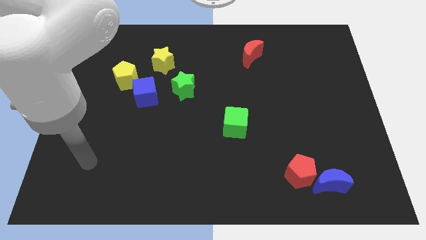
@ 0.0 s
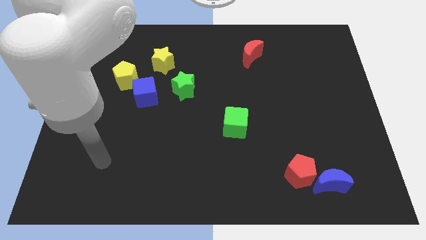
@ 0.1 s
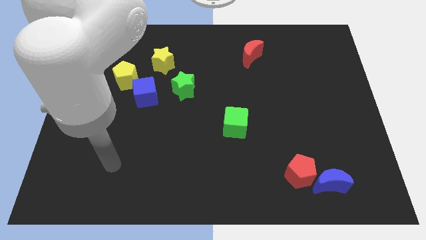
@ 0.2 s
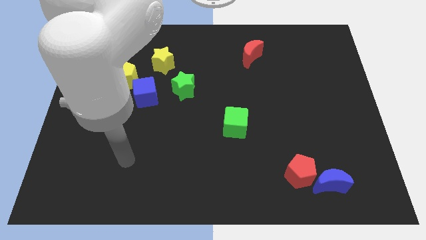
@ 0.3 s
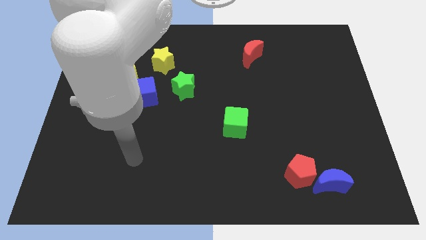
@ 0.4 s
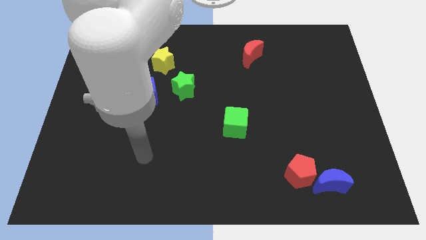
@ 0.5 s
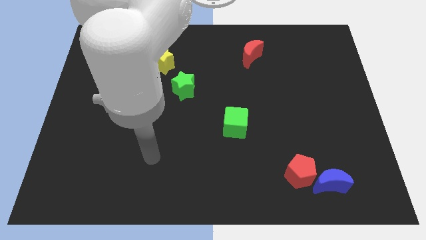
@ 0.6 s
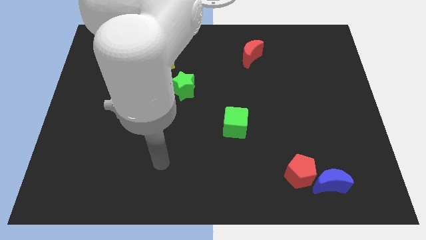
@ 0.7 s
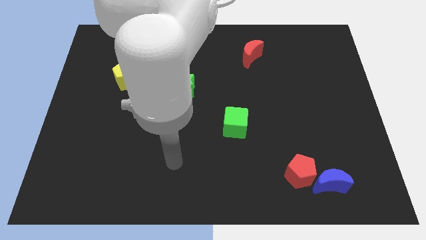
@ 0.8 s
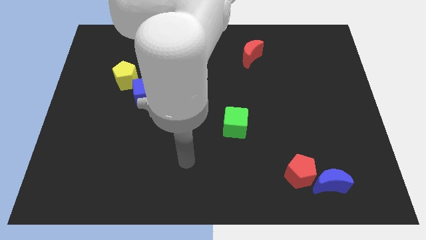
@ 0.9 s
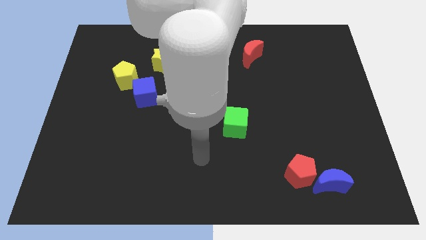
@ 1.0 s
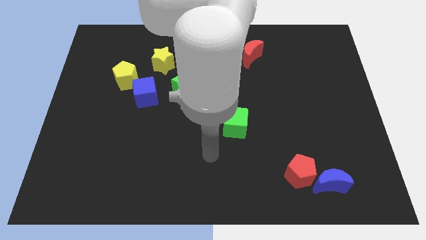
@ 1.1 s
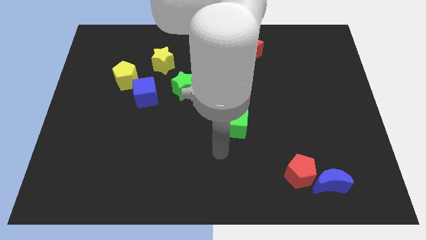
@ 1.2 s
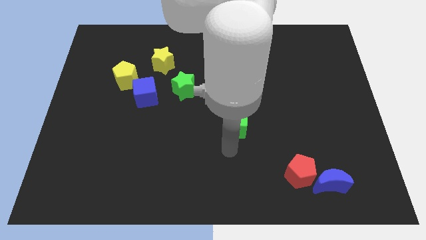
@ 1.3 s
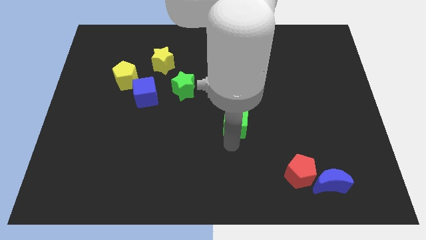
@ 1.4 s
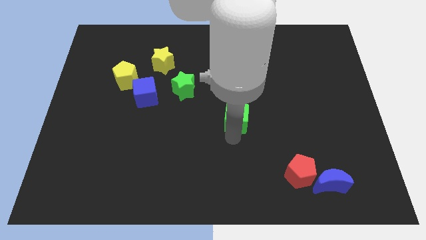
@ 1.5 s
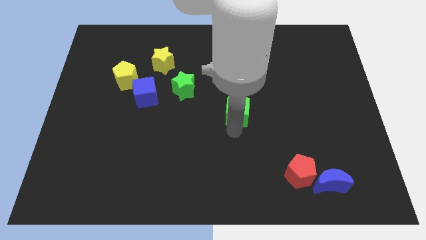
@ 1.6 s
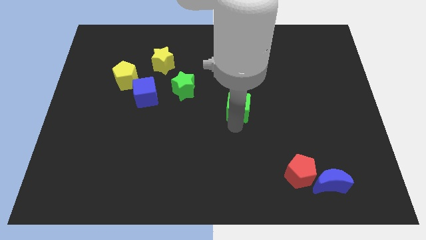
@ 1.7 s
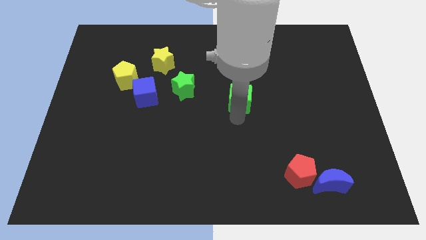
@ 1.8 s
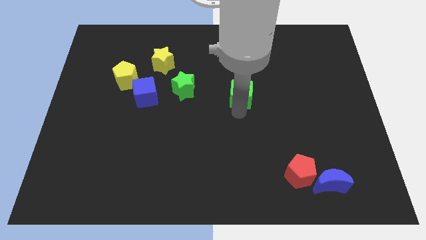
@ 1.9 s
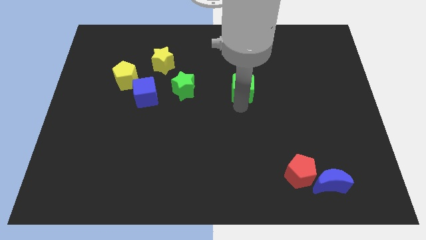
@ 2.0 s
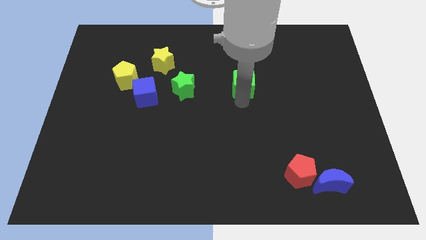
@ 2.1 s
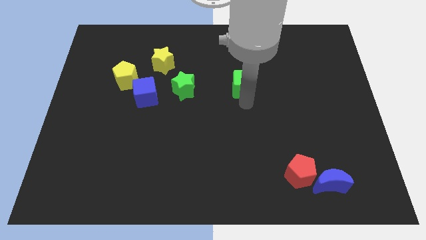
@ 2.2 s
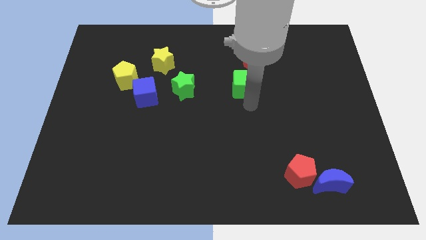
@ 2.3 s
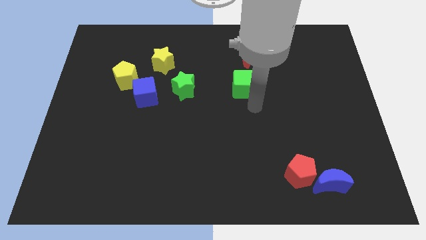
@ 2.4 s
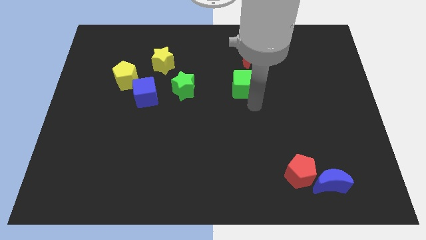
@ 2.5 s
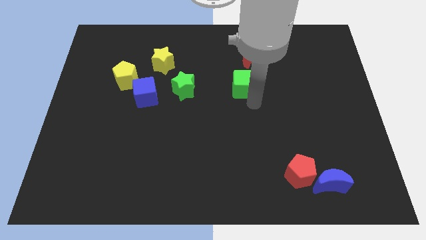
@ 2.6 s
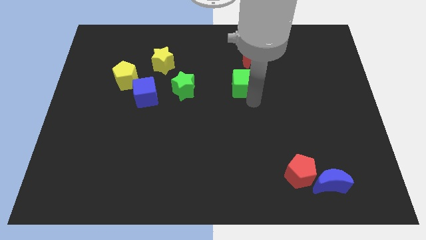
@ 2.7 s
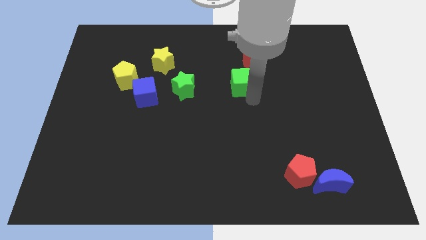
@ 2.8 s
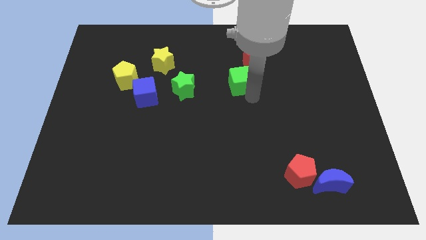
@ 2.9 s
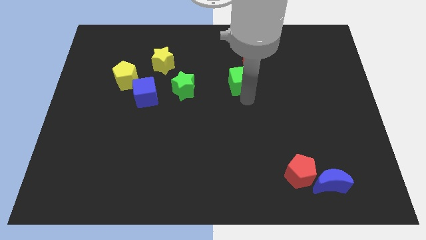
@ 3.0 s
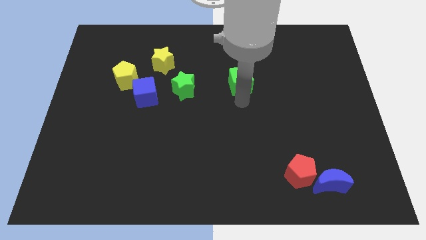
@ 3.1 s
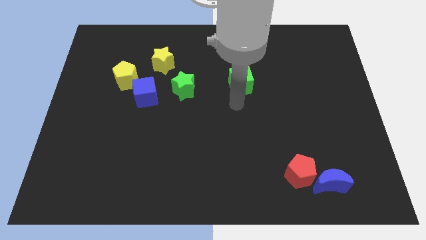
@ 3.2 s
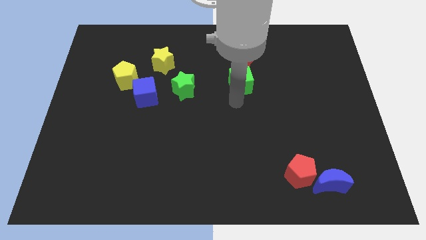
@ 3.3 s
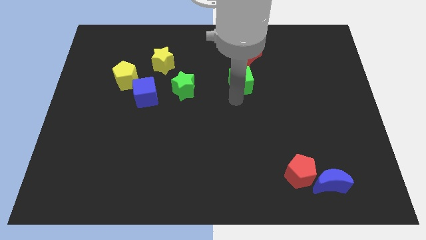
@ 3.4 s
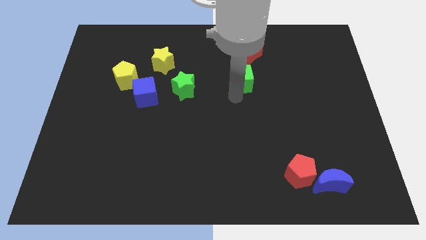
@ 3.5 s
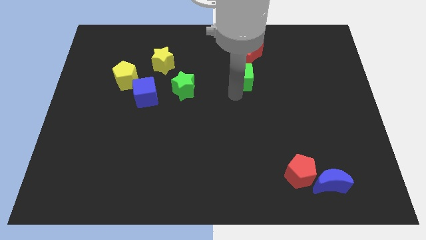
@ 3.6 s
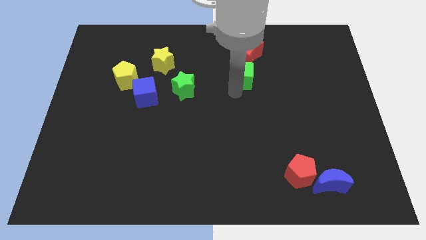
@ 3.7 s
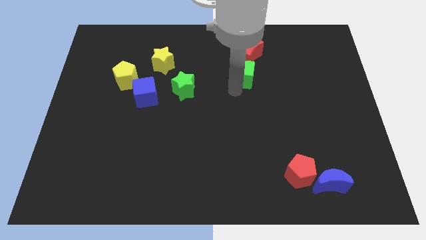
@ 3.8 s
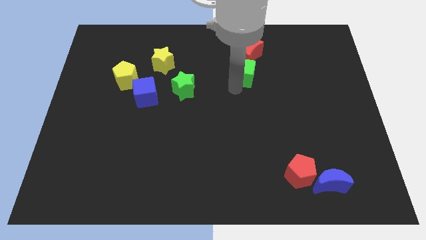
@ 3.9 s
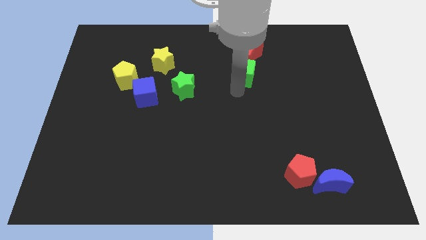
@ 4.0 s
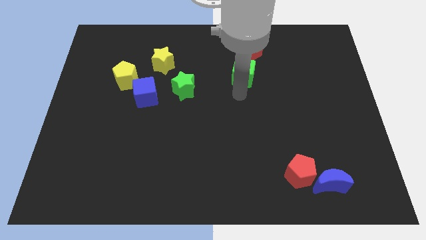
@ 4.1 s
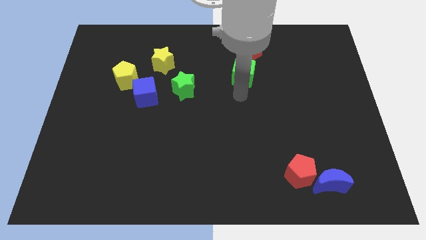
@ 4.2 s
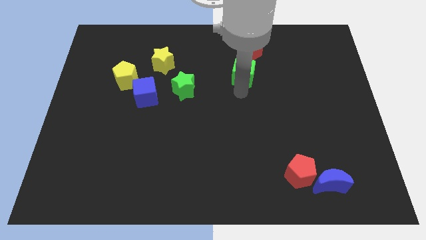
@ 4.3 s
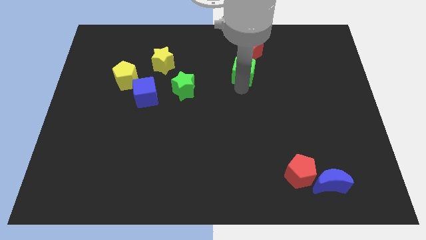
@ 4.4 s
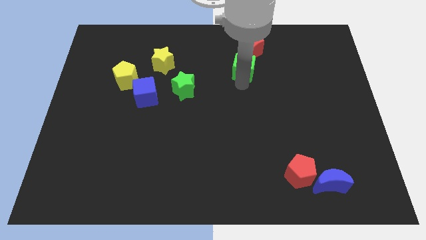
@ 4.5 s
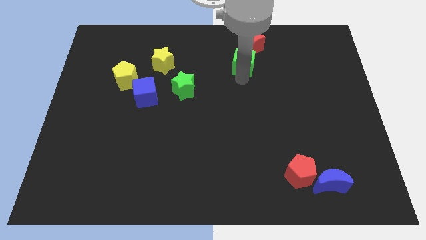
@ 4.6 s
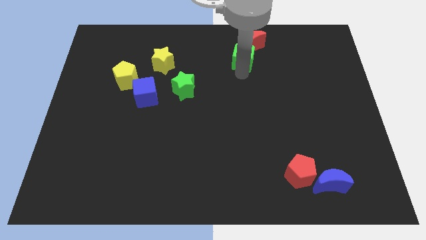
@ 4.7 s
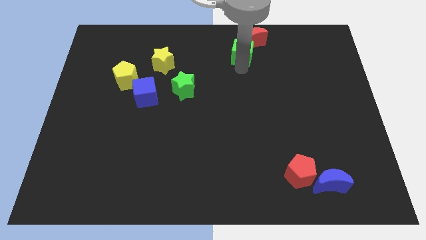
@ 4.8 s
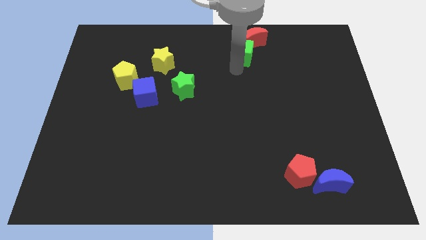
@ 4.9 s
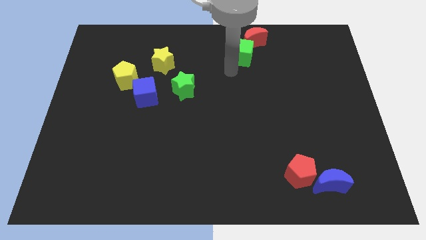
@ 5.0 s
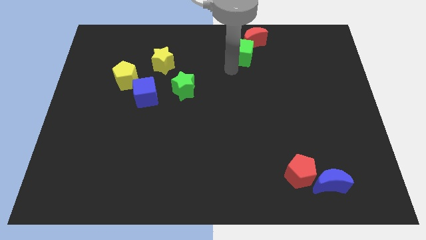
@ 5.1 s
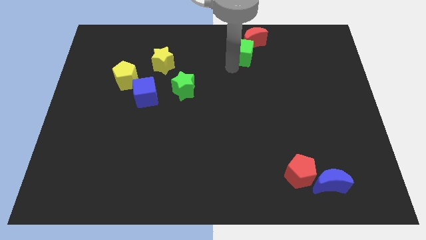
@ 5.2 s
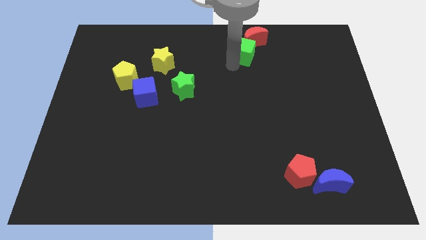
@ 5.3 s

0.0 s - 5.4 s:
move the green cube next to the red moon

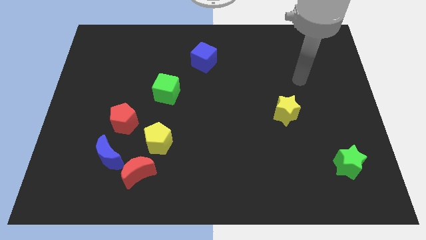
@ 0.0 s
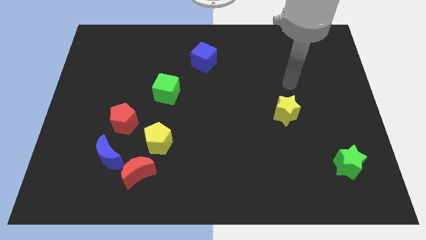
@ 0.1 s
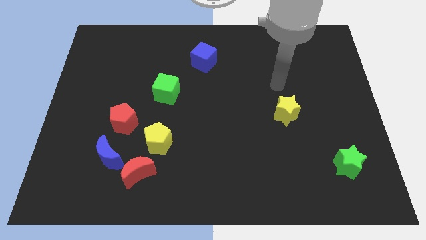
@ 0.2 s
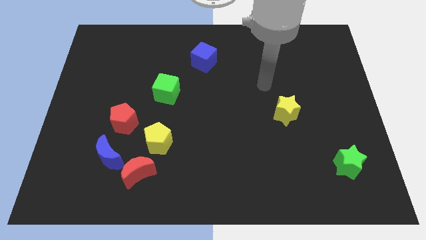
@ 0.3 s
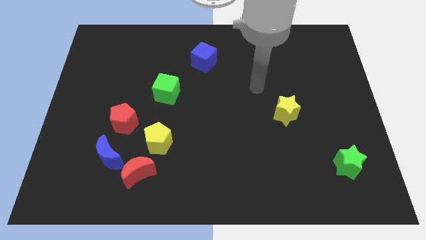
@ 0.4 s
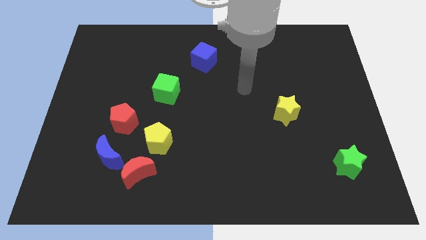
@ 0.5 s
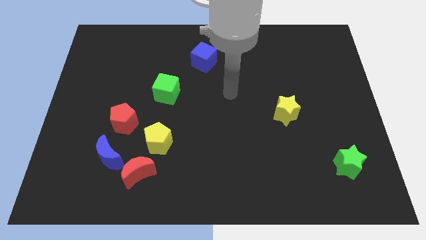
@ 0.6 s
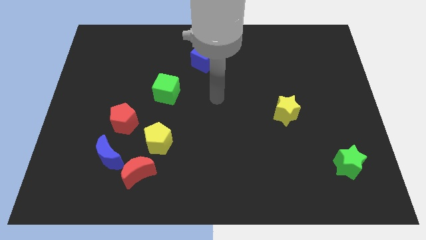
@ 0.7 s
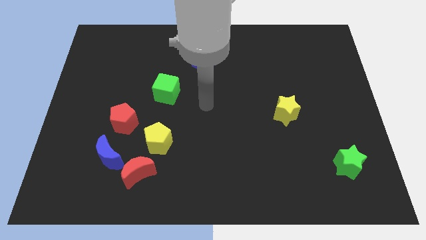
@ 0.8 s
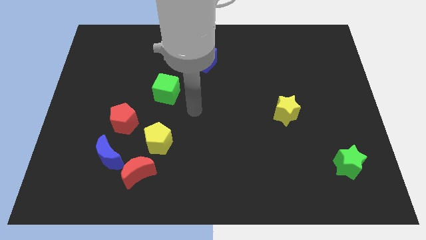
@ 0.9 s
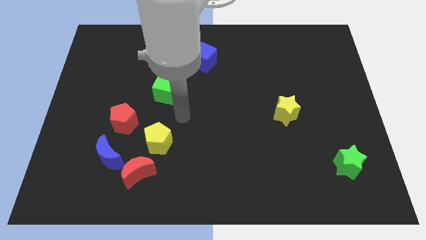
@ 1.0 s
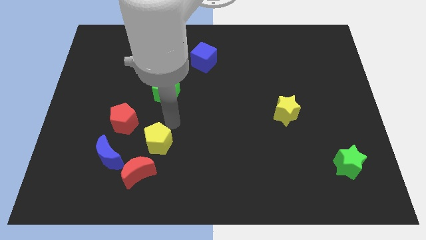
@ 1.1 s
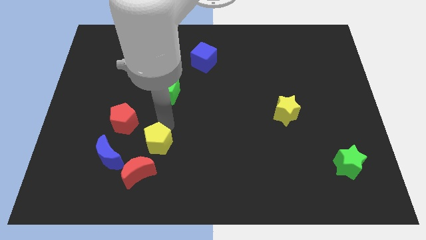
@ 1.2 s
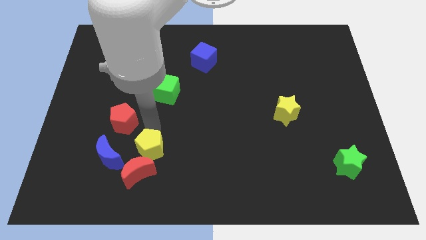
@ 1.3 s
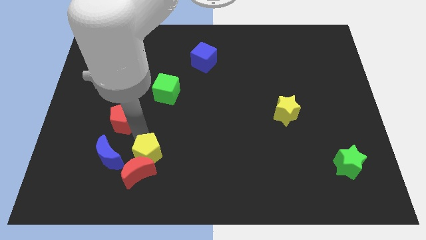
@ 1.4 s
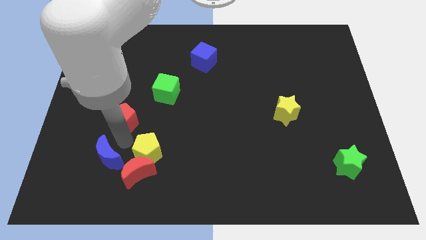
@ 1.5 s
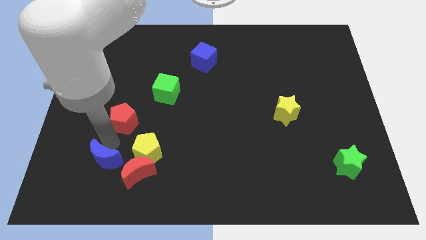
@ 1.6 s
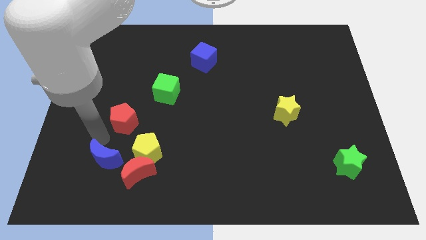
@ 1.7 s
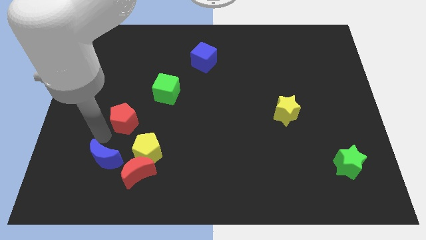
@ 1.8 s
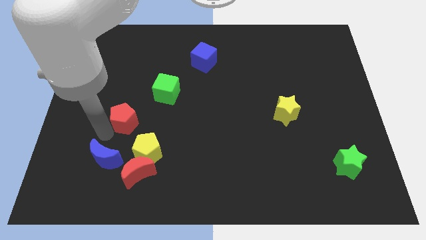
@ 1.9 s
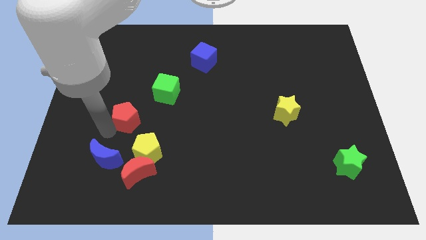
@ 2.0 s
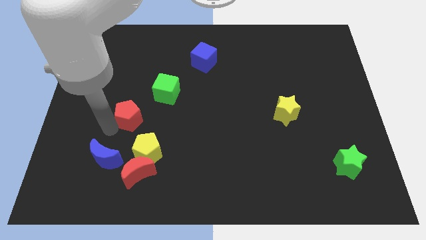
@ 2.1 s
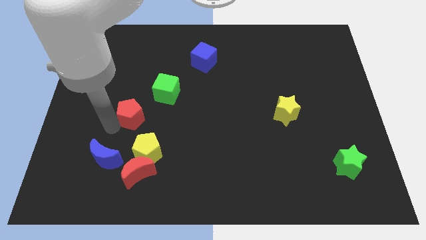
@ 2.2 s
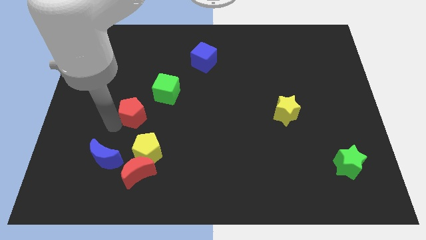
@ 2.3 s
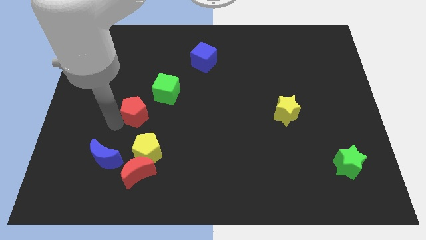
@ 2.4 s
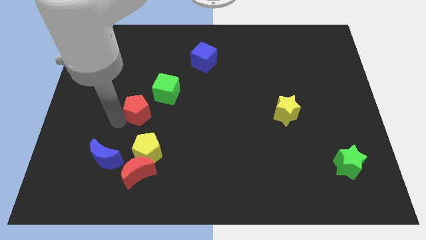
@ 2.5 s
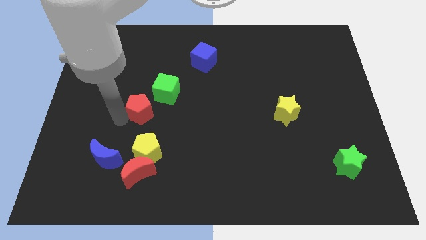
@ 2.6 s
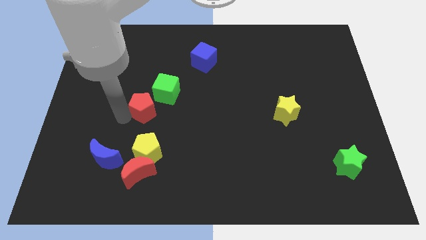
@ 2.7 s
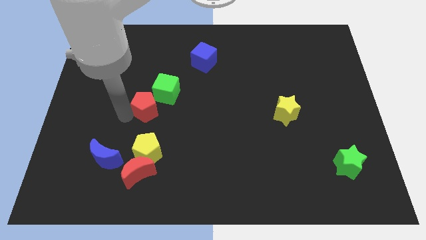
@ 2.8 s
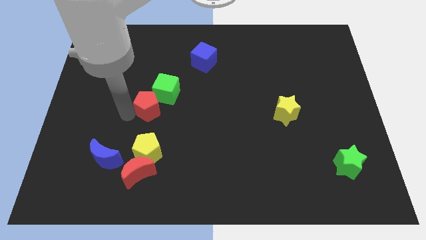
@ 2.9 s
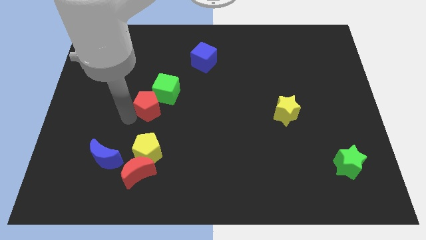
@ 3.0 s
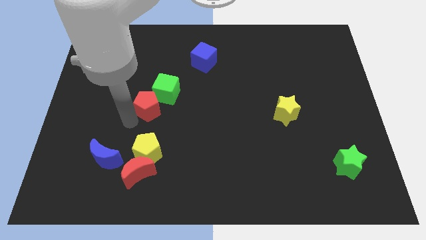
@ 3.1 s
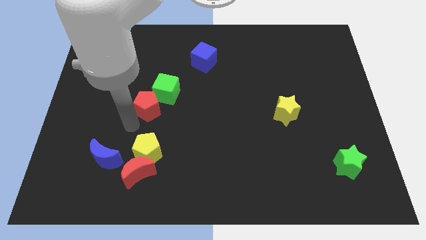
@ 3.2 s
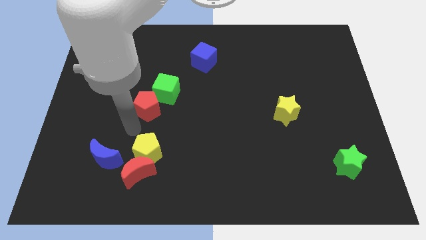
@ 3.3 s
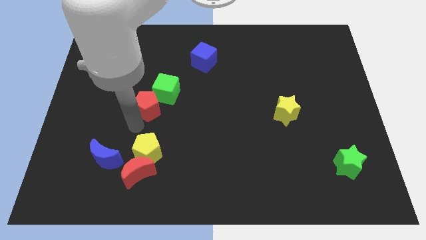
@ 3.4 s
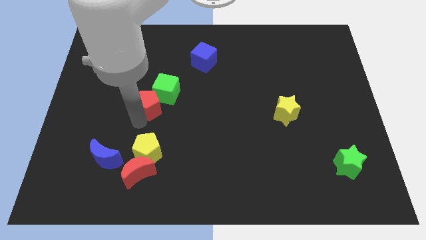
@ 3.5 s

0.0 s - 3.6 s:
slide the red pentagon towards the green cube
